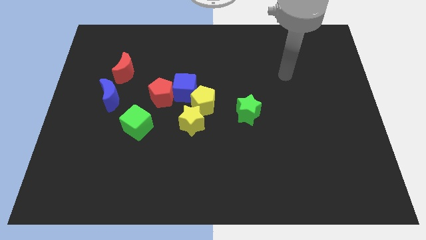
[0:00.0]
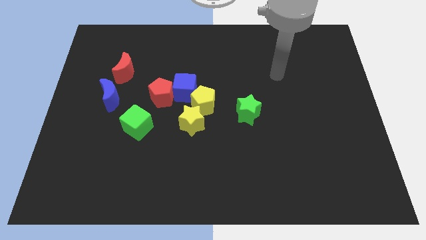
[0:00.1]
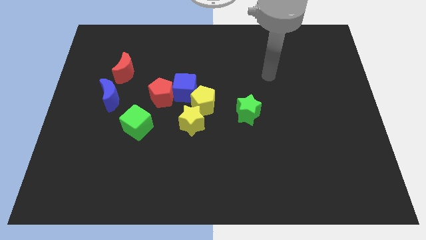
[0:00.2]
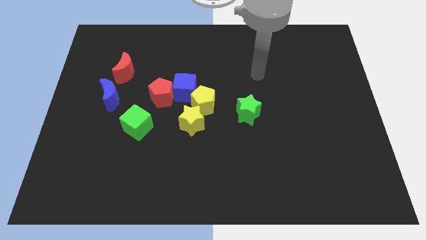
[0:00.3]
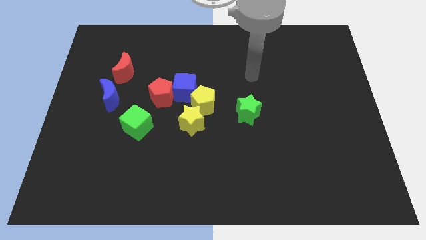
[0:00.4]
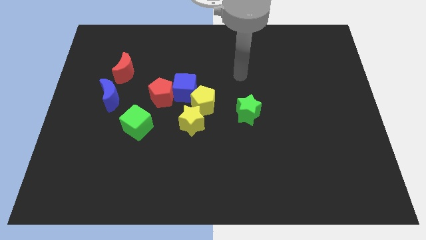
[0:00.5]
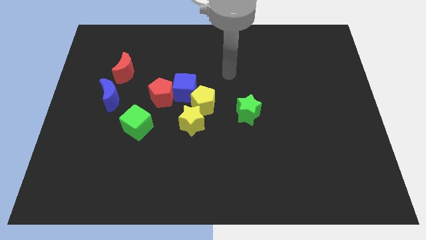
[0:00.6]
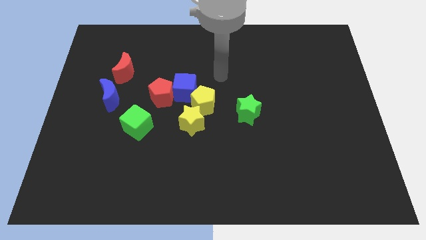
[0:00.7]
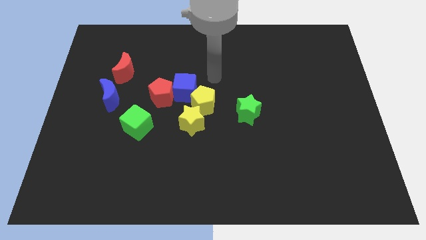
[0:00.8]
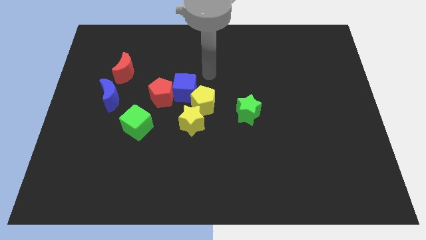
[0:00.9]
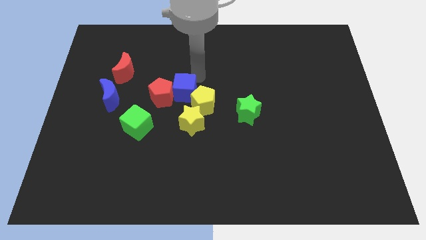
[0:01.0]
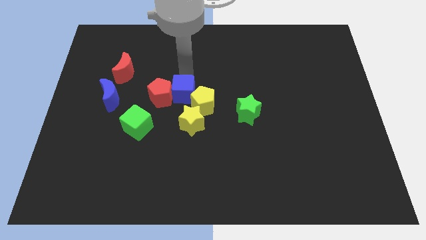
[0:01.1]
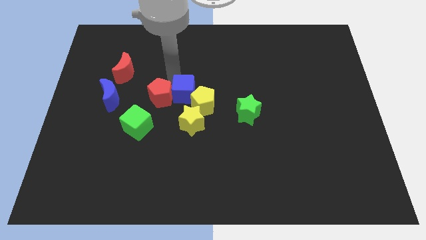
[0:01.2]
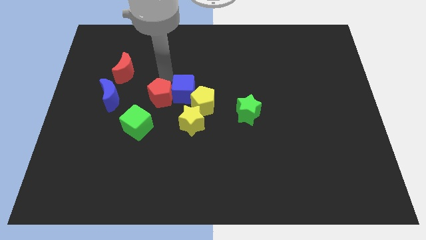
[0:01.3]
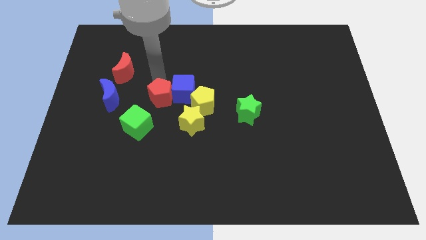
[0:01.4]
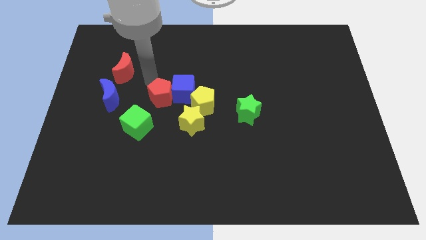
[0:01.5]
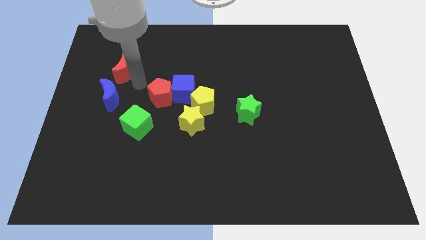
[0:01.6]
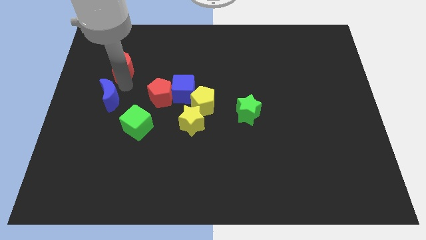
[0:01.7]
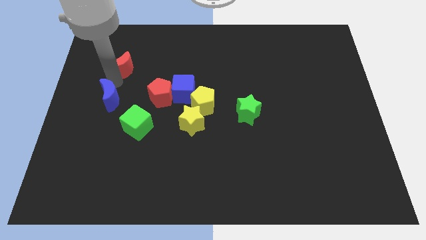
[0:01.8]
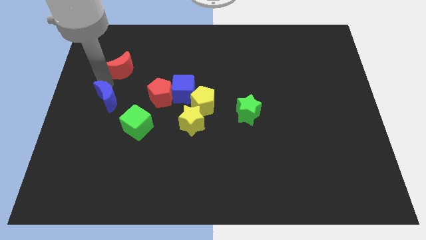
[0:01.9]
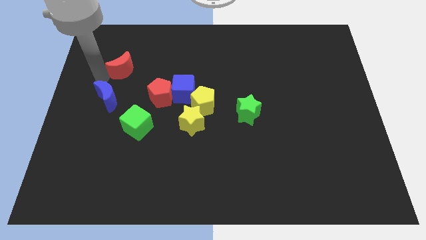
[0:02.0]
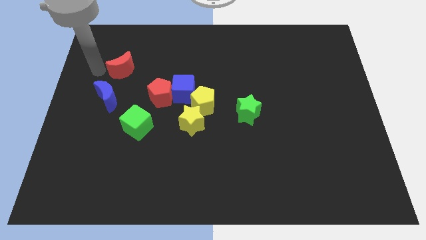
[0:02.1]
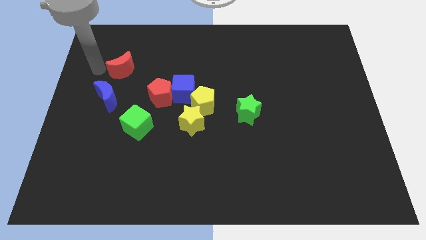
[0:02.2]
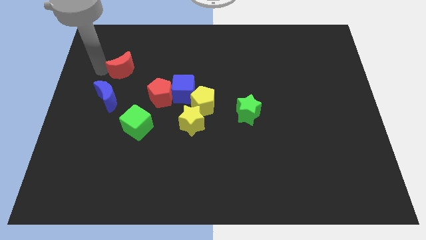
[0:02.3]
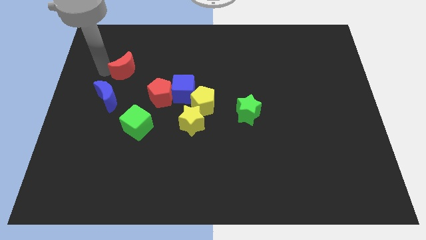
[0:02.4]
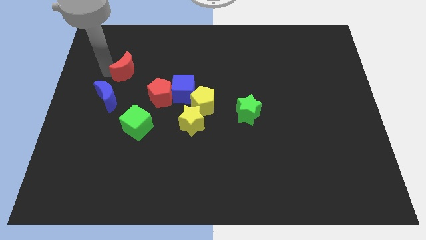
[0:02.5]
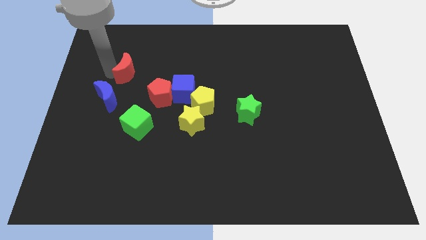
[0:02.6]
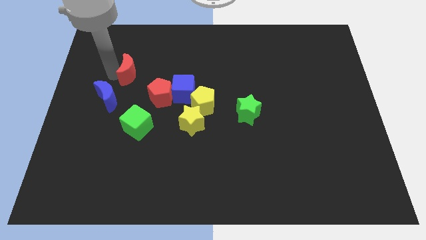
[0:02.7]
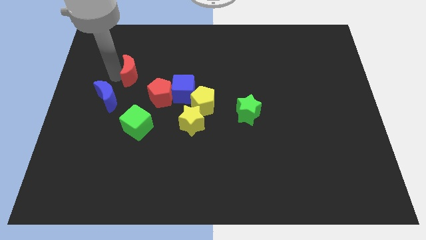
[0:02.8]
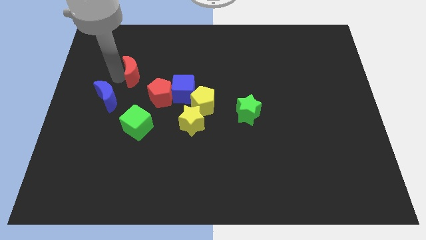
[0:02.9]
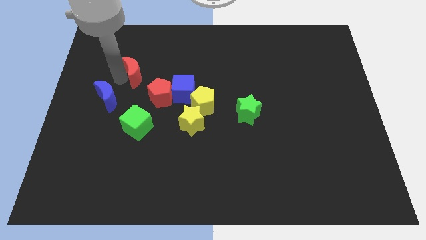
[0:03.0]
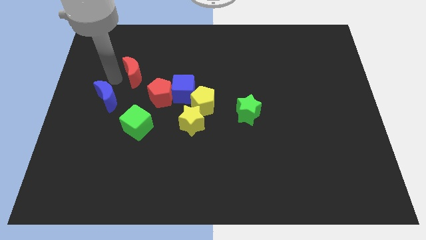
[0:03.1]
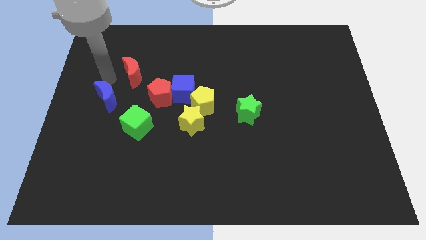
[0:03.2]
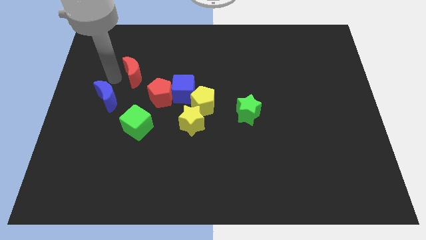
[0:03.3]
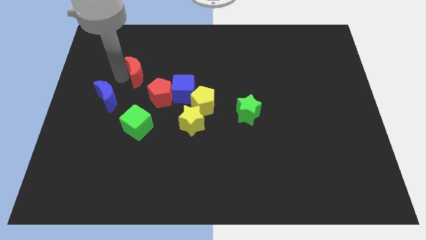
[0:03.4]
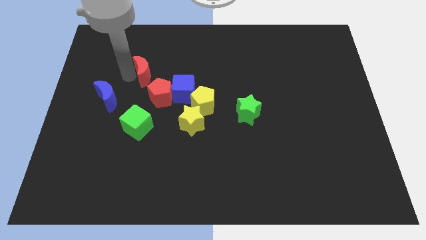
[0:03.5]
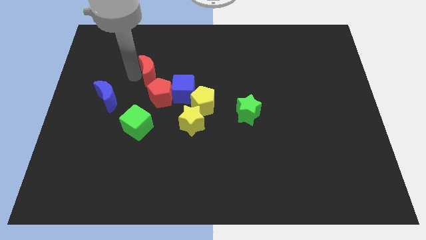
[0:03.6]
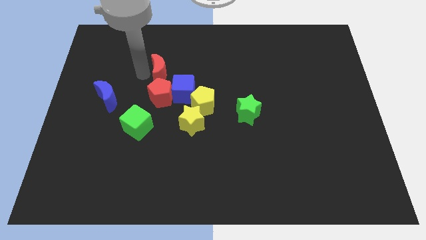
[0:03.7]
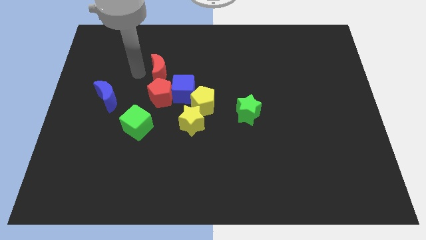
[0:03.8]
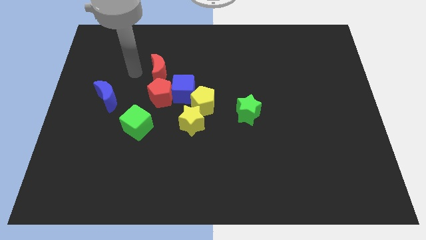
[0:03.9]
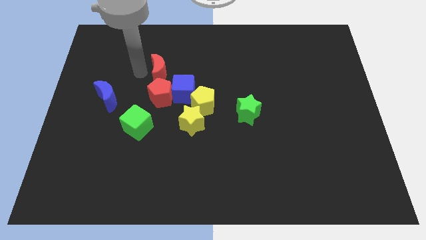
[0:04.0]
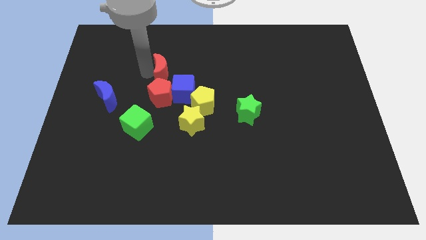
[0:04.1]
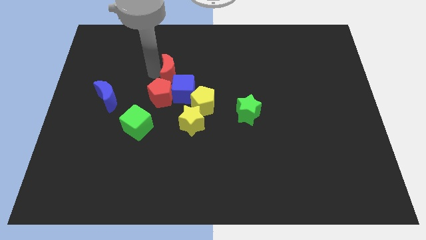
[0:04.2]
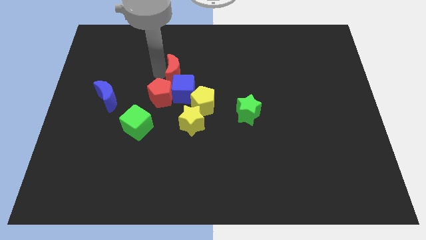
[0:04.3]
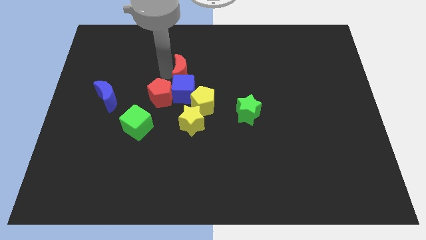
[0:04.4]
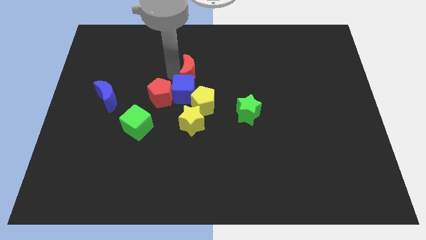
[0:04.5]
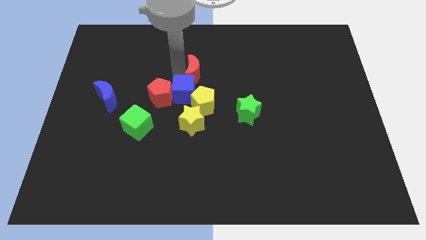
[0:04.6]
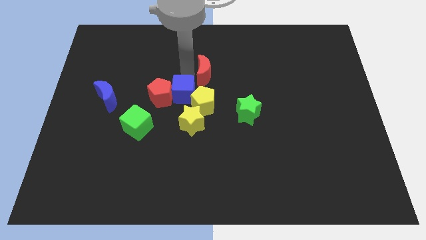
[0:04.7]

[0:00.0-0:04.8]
push the red moon to the right

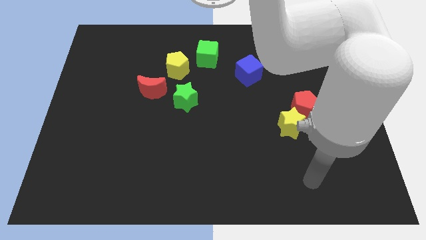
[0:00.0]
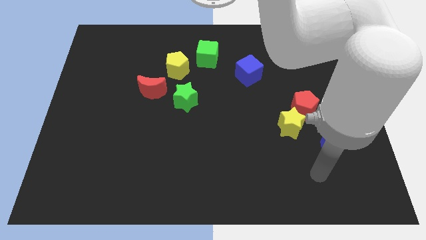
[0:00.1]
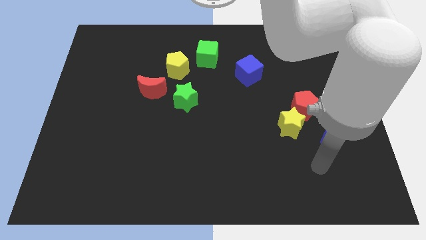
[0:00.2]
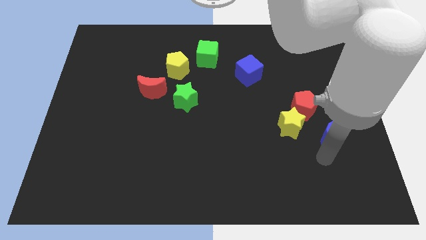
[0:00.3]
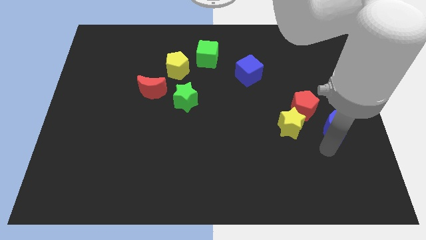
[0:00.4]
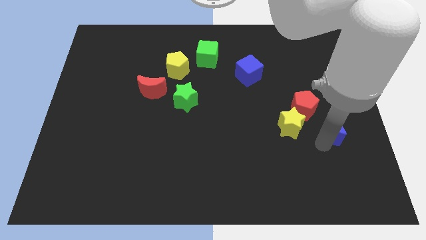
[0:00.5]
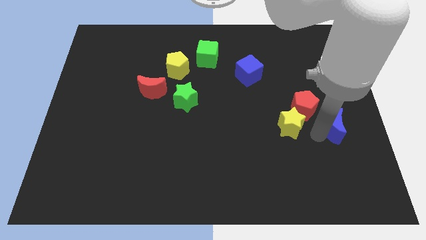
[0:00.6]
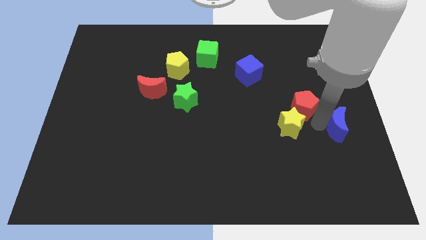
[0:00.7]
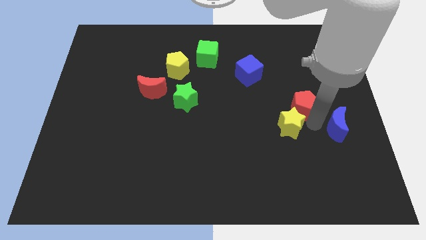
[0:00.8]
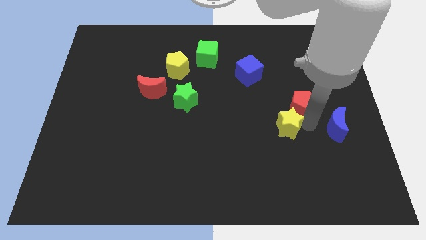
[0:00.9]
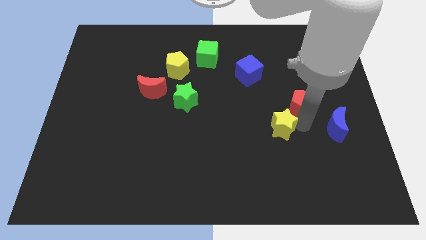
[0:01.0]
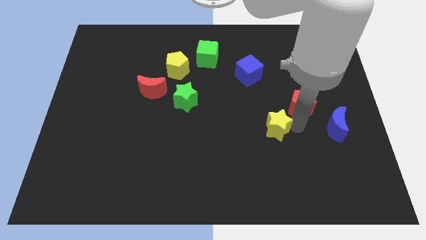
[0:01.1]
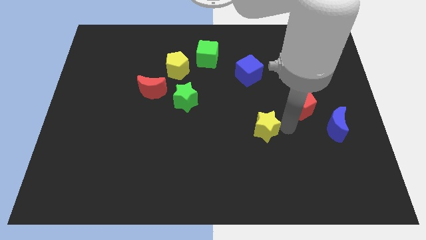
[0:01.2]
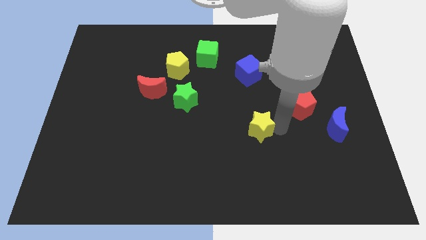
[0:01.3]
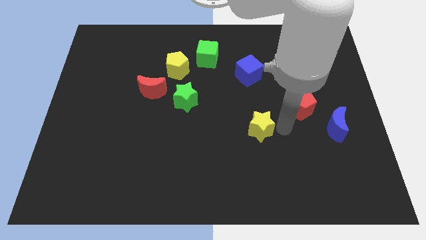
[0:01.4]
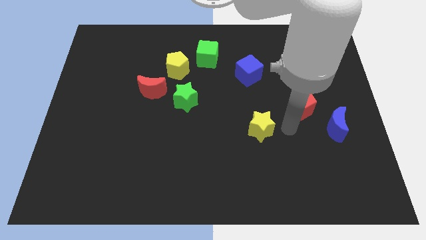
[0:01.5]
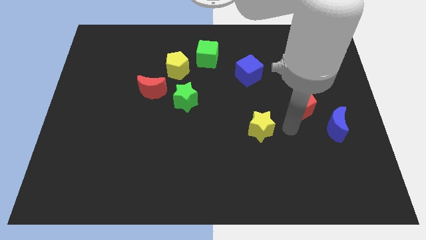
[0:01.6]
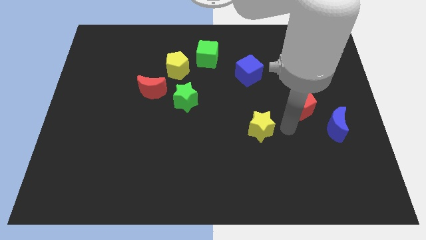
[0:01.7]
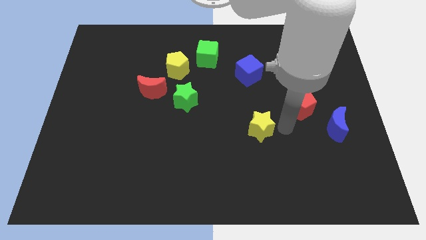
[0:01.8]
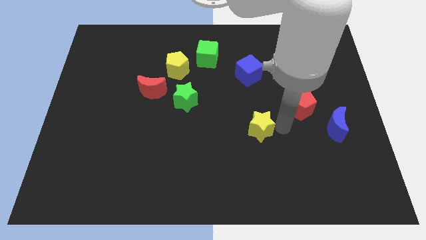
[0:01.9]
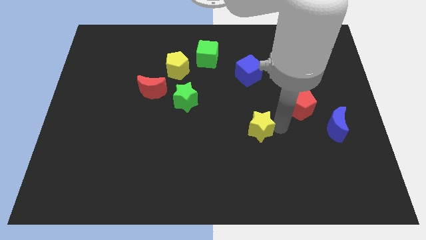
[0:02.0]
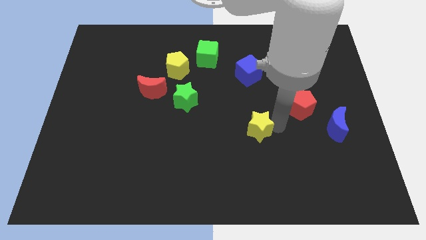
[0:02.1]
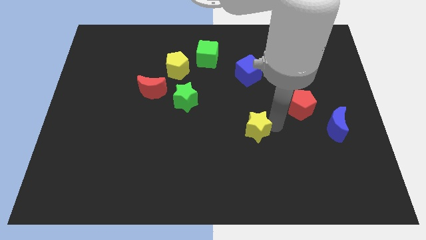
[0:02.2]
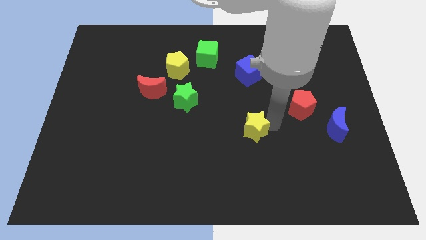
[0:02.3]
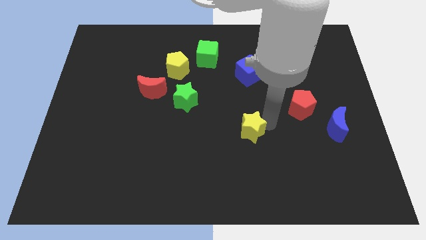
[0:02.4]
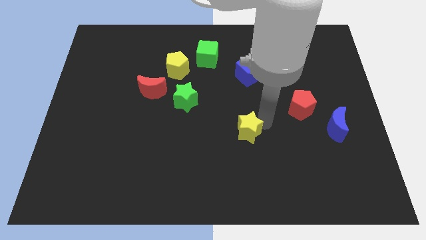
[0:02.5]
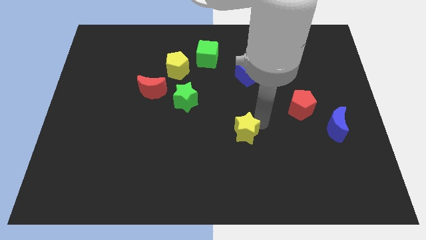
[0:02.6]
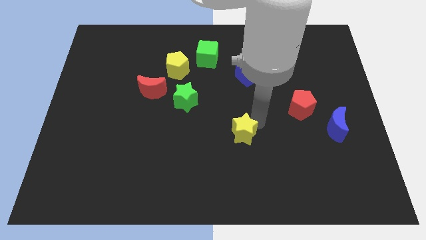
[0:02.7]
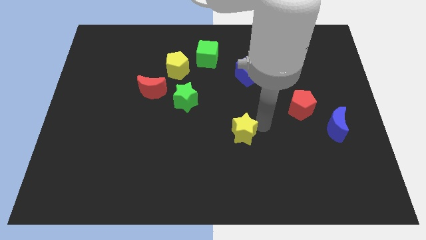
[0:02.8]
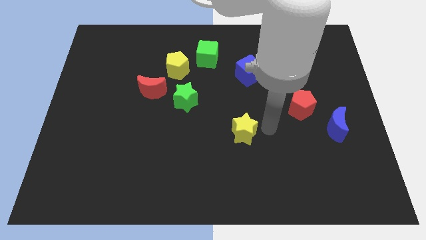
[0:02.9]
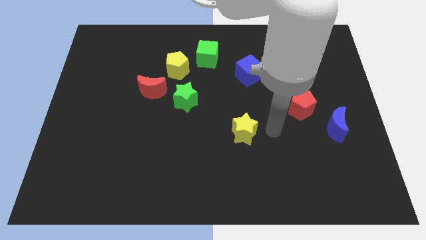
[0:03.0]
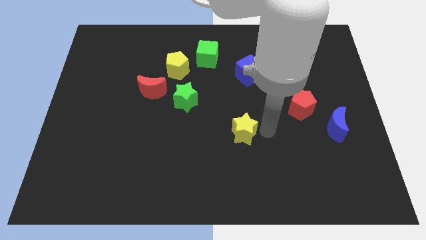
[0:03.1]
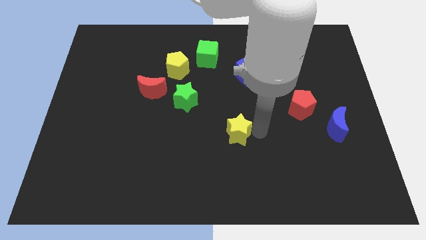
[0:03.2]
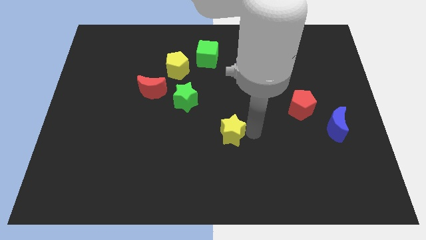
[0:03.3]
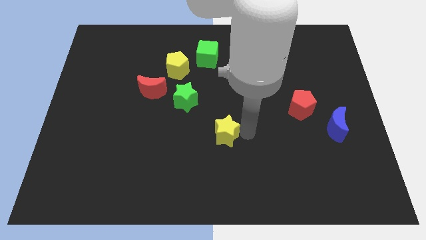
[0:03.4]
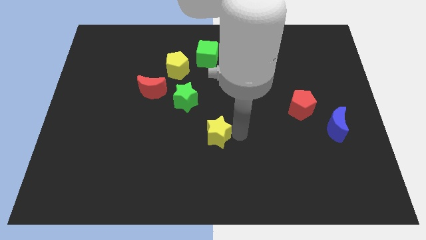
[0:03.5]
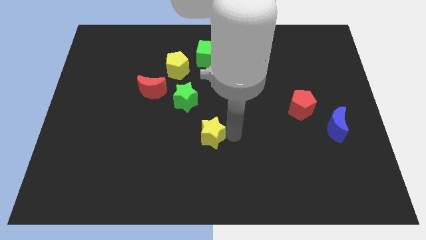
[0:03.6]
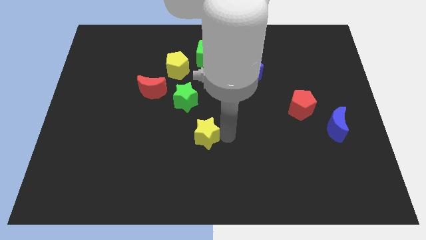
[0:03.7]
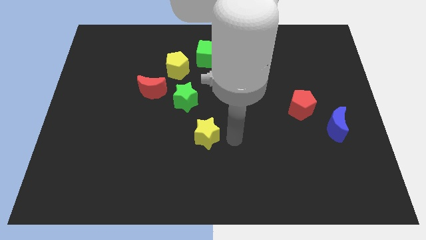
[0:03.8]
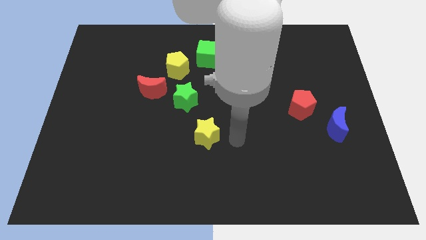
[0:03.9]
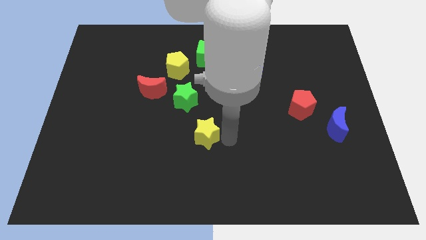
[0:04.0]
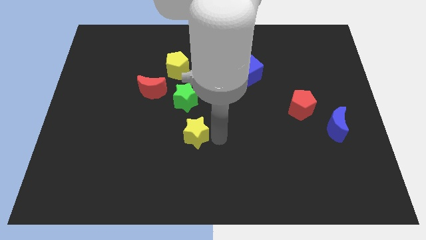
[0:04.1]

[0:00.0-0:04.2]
push the yellow star to the left
